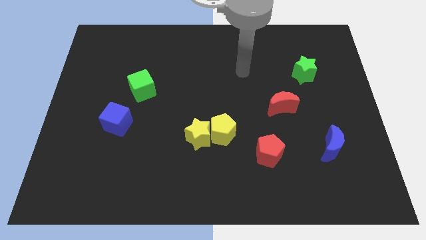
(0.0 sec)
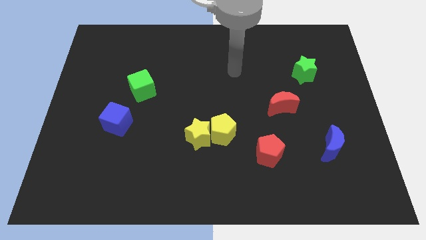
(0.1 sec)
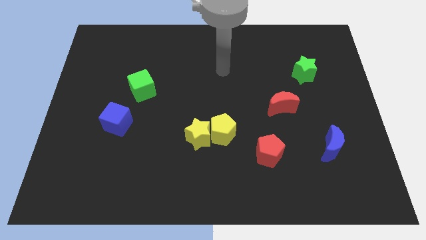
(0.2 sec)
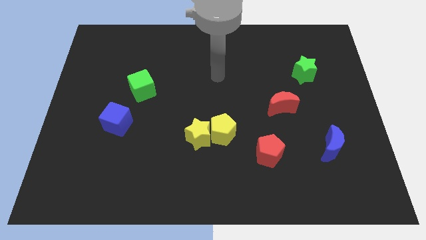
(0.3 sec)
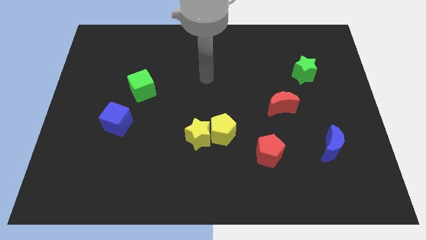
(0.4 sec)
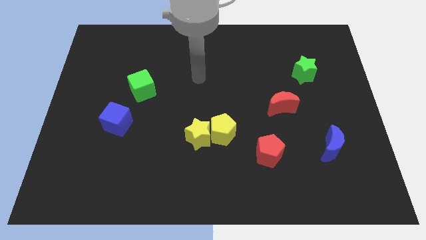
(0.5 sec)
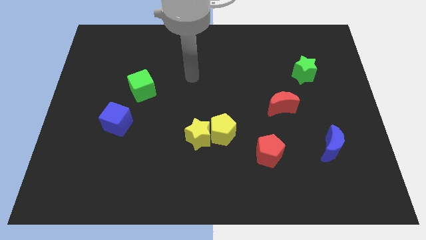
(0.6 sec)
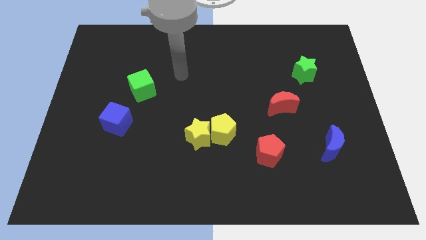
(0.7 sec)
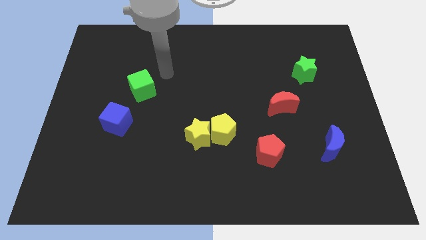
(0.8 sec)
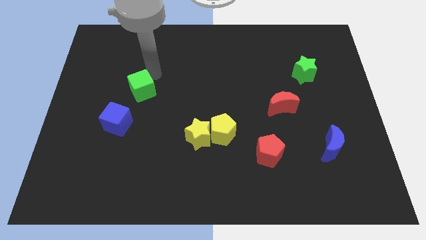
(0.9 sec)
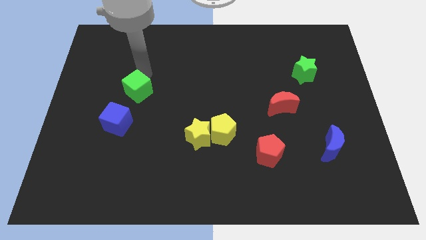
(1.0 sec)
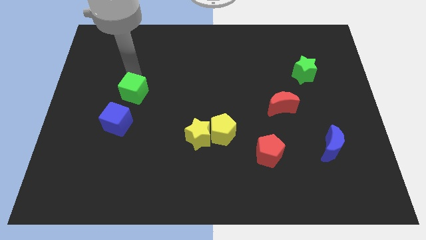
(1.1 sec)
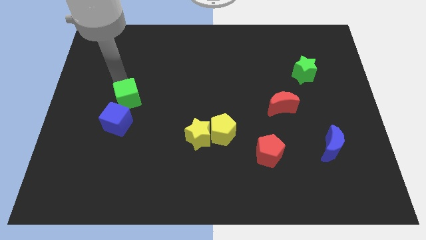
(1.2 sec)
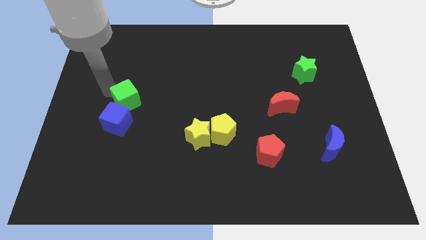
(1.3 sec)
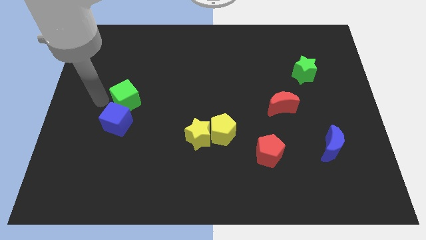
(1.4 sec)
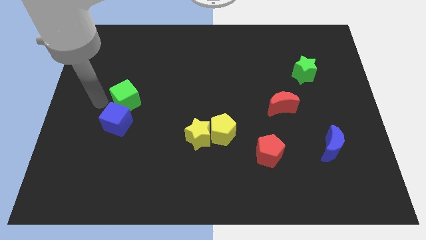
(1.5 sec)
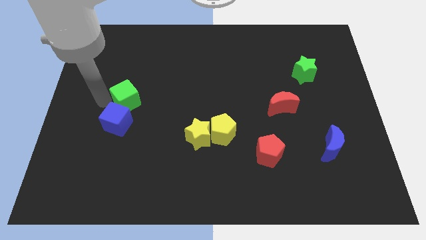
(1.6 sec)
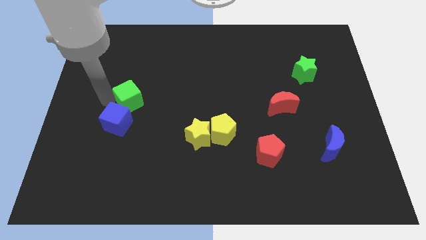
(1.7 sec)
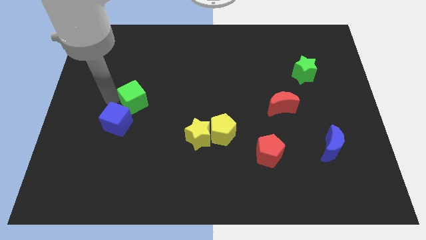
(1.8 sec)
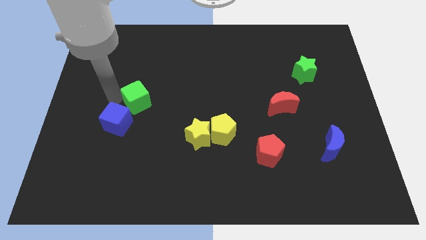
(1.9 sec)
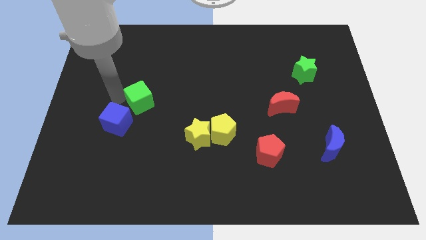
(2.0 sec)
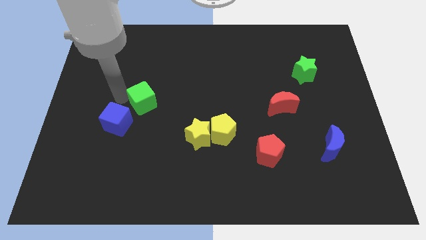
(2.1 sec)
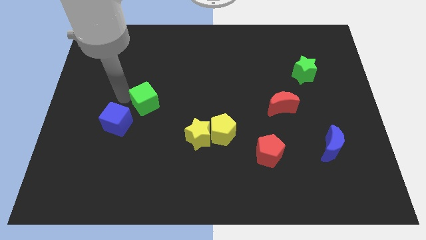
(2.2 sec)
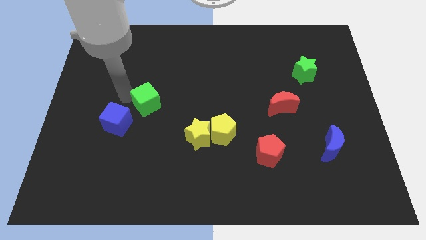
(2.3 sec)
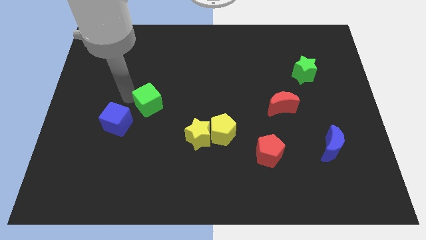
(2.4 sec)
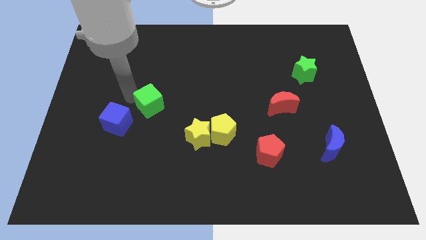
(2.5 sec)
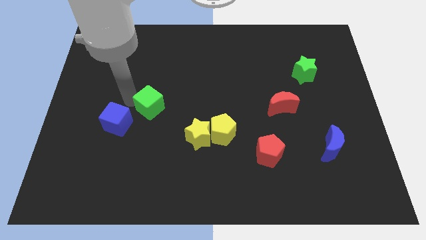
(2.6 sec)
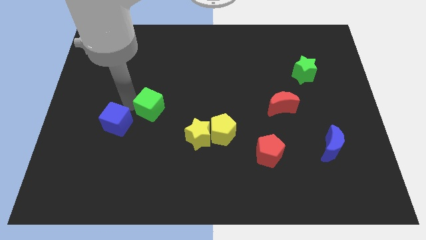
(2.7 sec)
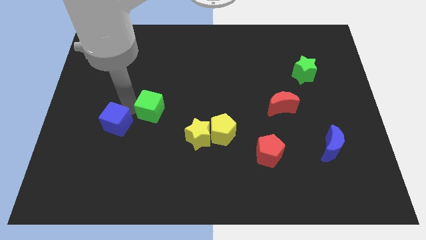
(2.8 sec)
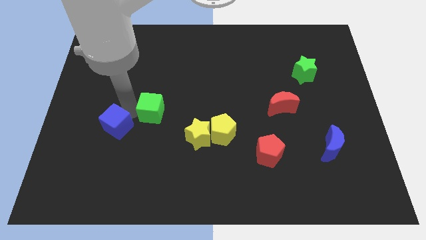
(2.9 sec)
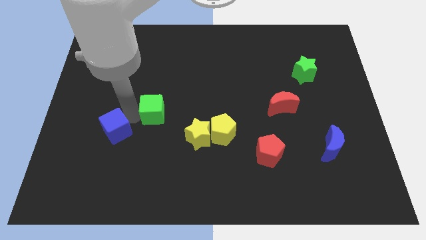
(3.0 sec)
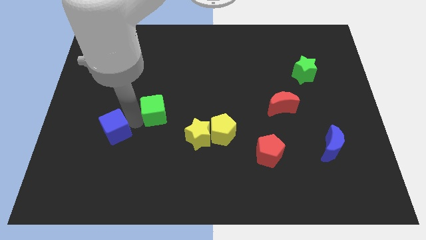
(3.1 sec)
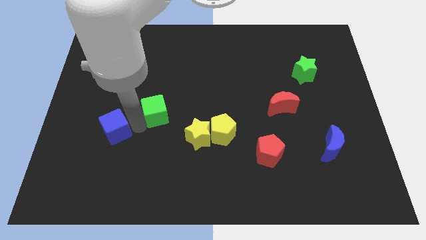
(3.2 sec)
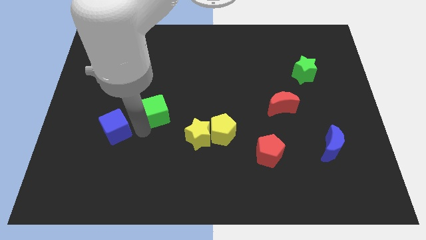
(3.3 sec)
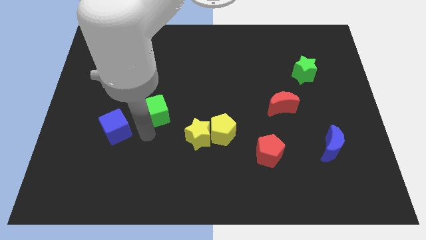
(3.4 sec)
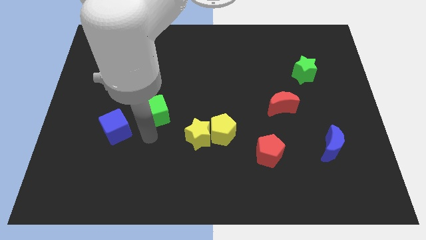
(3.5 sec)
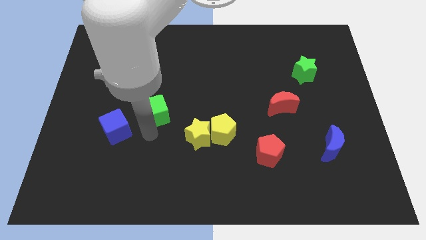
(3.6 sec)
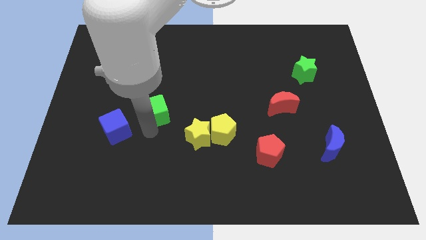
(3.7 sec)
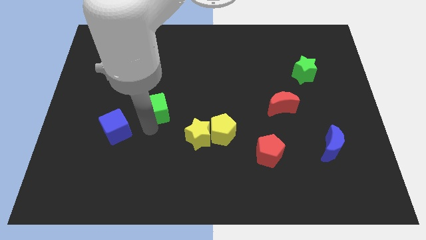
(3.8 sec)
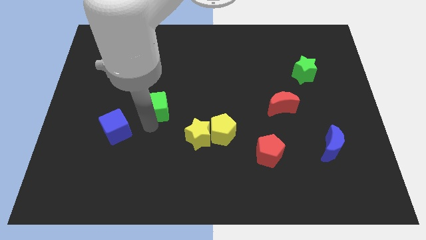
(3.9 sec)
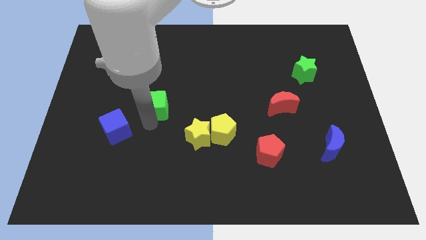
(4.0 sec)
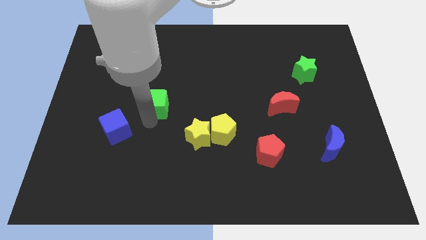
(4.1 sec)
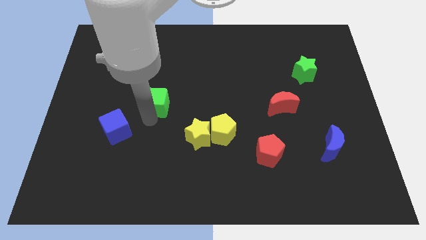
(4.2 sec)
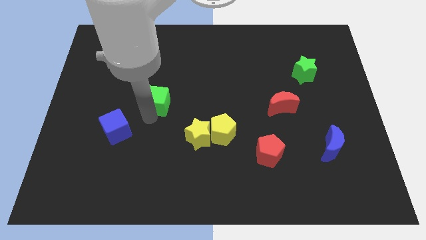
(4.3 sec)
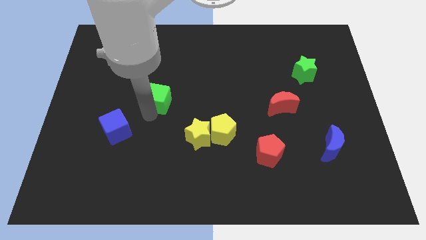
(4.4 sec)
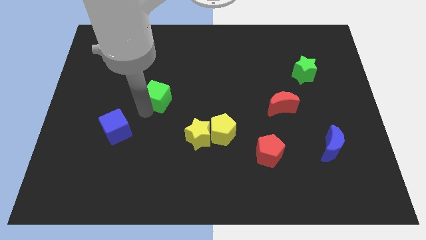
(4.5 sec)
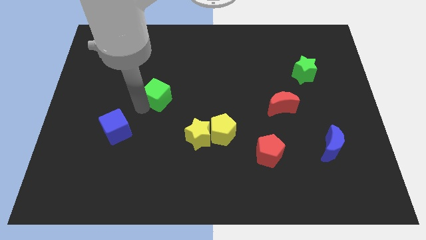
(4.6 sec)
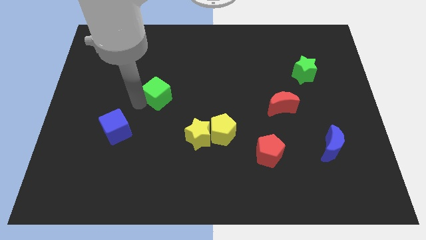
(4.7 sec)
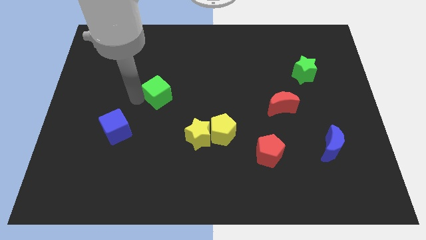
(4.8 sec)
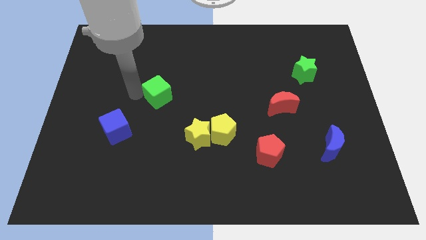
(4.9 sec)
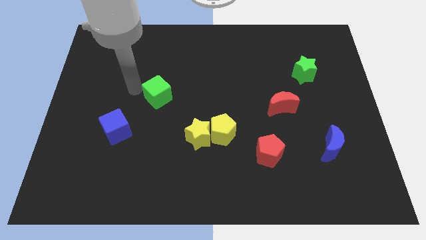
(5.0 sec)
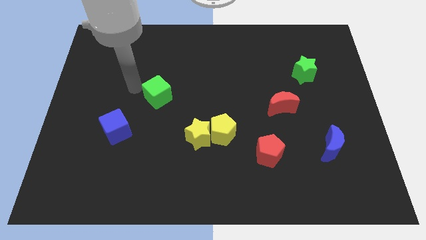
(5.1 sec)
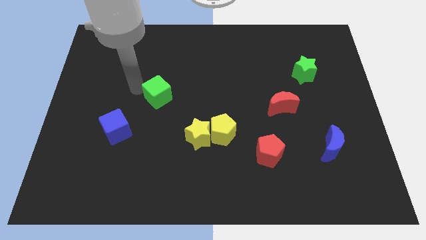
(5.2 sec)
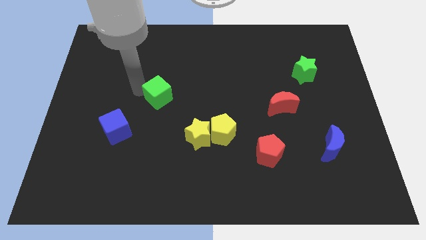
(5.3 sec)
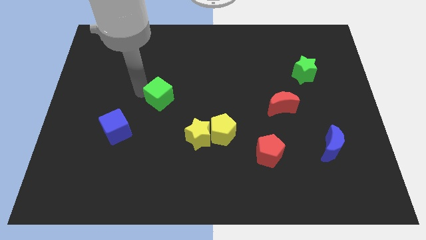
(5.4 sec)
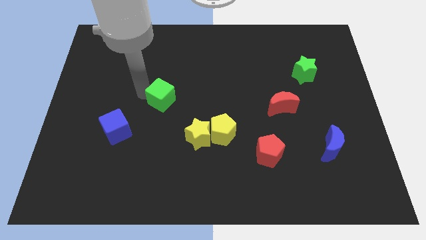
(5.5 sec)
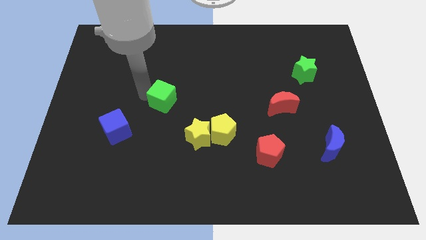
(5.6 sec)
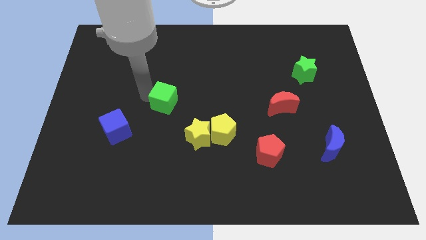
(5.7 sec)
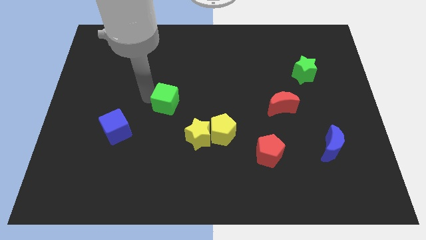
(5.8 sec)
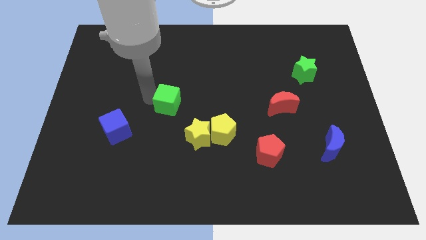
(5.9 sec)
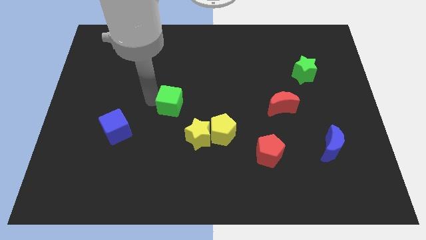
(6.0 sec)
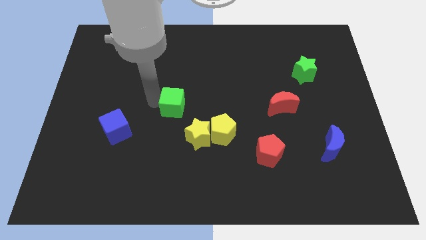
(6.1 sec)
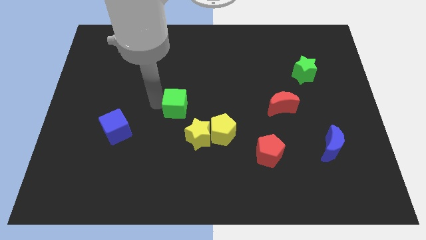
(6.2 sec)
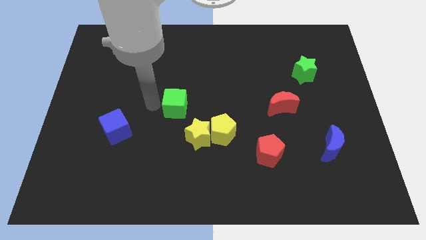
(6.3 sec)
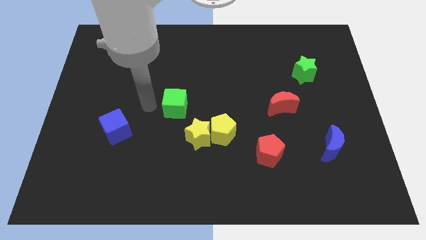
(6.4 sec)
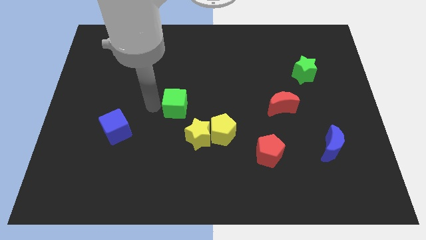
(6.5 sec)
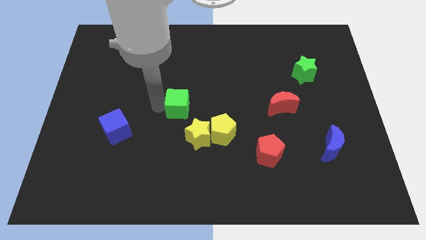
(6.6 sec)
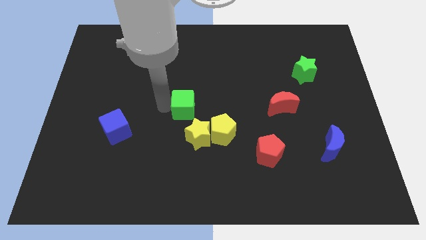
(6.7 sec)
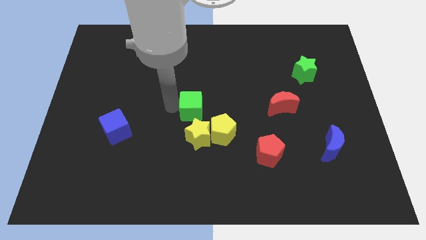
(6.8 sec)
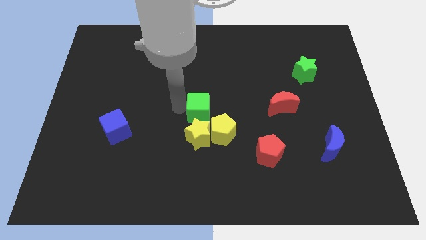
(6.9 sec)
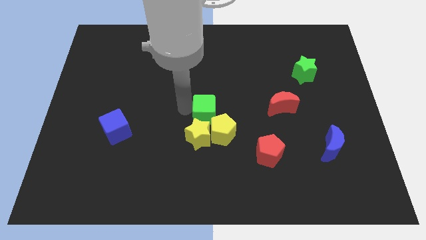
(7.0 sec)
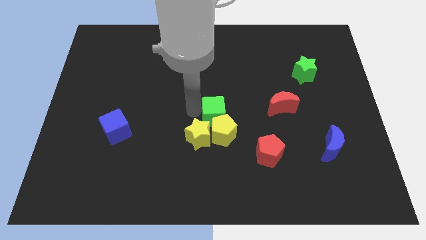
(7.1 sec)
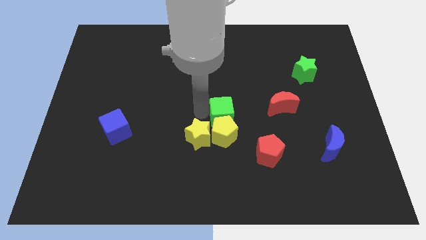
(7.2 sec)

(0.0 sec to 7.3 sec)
slide the green cube diagonally up and to the right of the yellow pentagon
